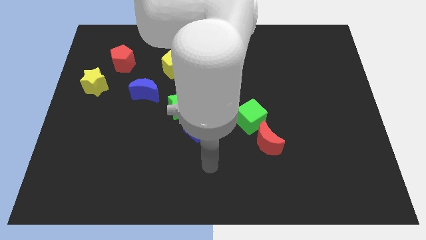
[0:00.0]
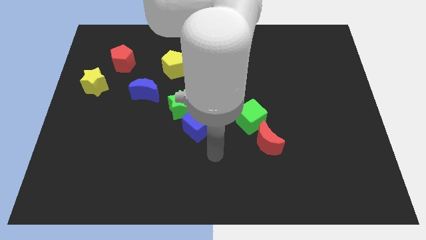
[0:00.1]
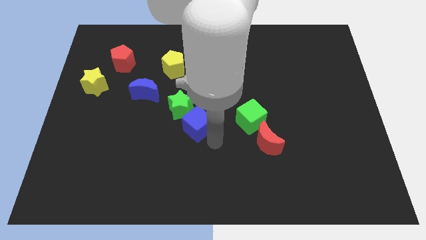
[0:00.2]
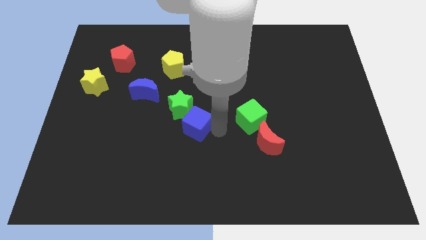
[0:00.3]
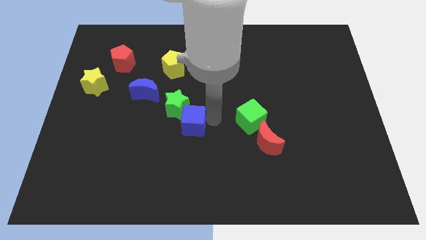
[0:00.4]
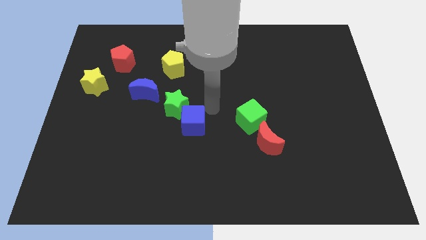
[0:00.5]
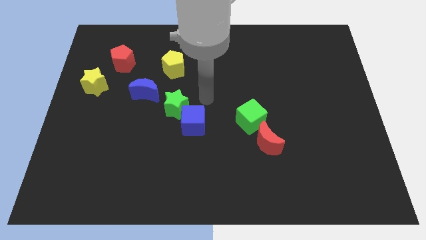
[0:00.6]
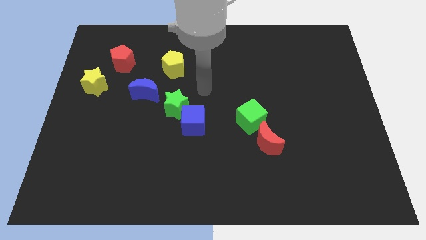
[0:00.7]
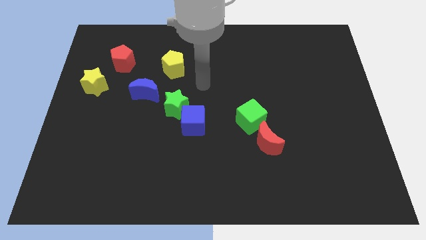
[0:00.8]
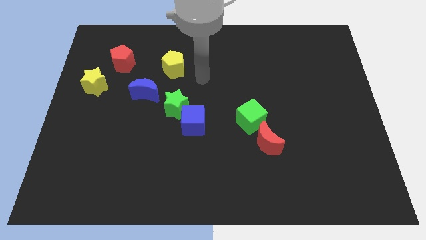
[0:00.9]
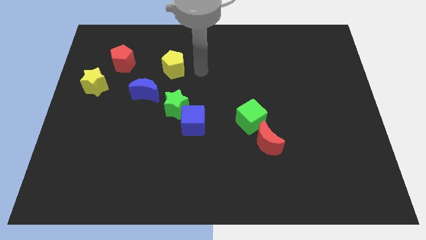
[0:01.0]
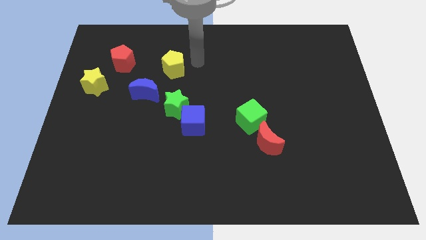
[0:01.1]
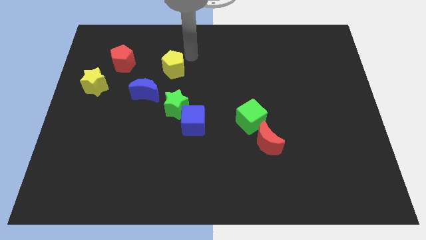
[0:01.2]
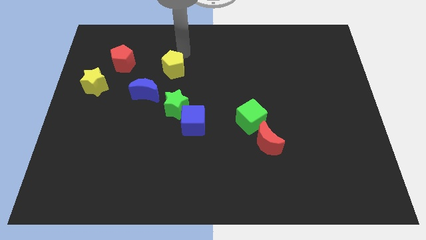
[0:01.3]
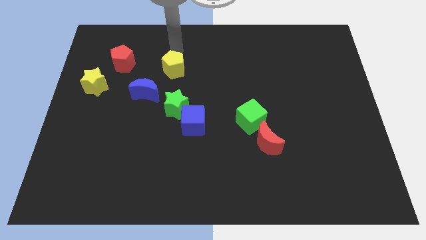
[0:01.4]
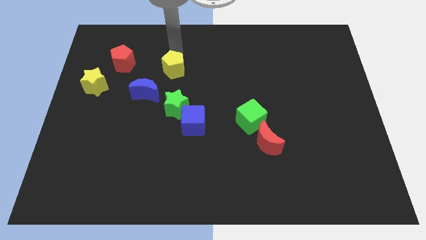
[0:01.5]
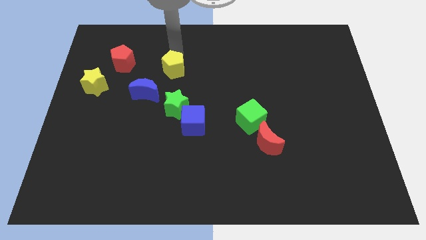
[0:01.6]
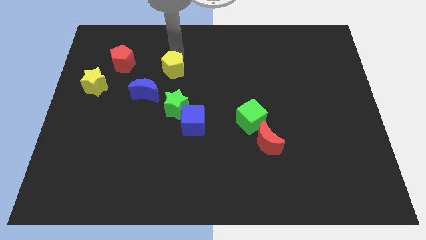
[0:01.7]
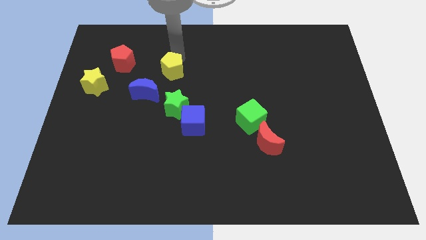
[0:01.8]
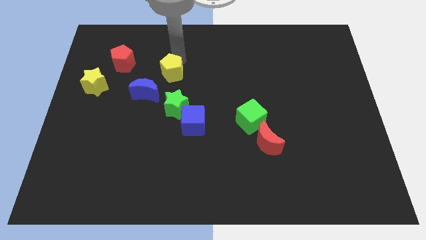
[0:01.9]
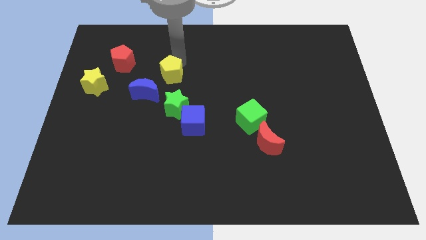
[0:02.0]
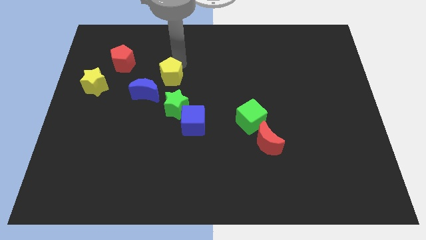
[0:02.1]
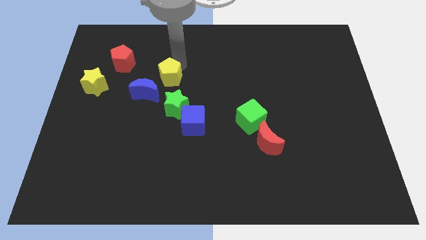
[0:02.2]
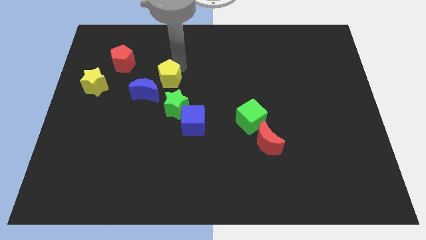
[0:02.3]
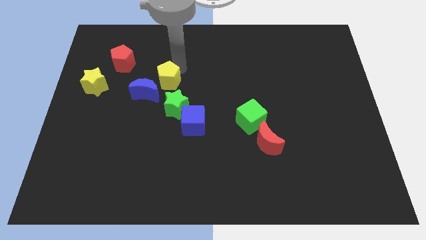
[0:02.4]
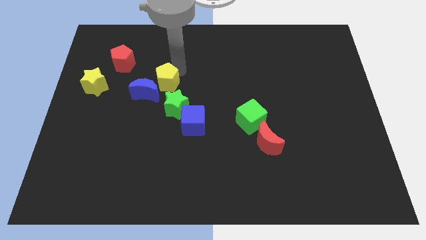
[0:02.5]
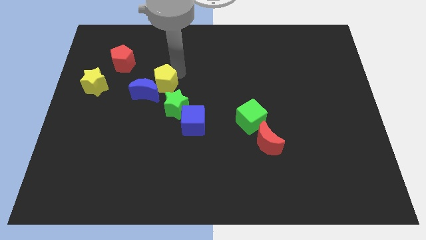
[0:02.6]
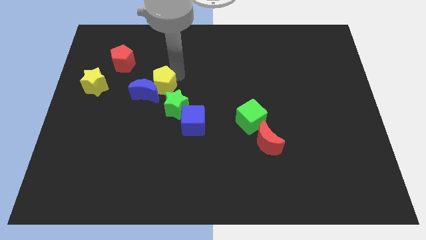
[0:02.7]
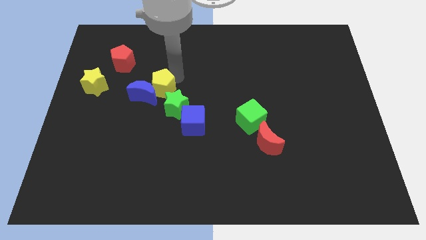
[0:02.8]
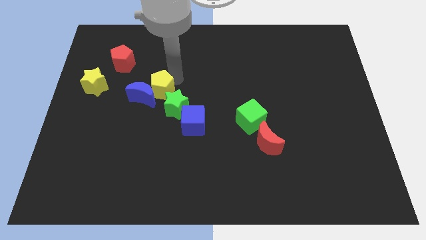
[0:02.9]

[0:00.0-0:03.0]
slightly move the yellow pentagon down

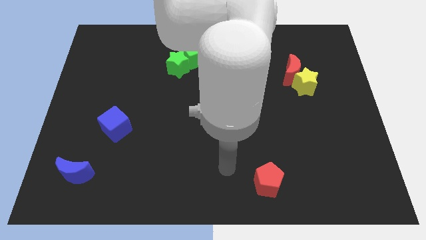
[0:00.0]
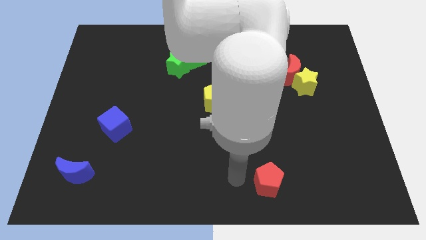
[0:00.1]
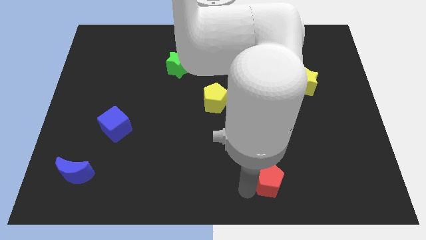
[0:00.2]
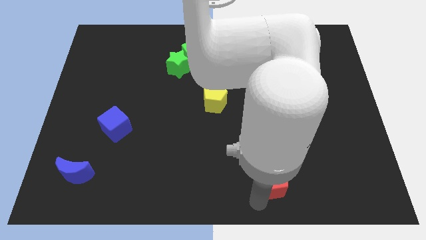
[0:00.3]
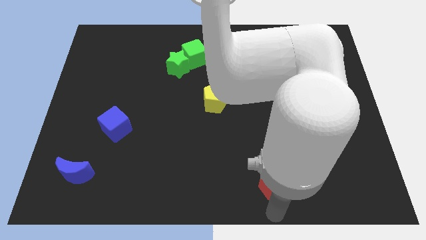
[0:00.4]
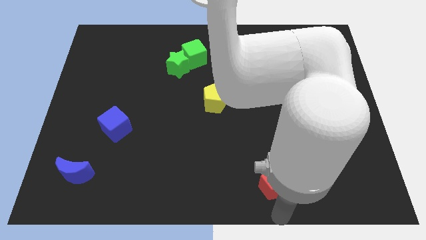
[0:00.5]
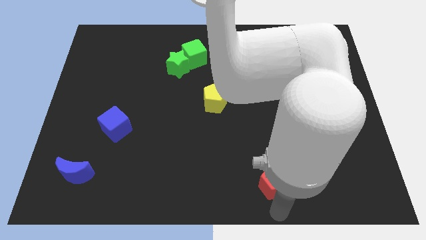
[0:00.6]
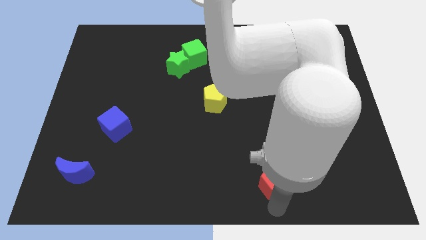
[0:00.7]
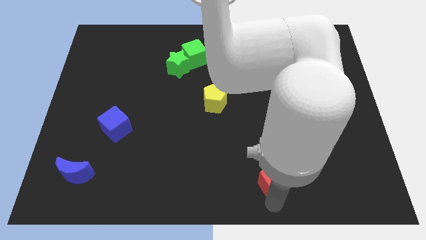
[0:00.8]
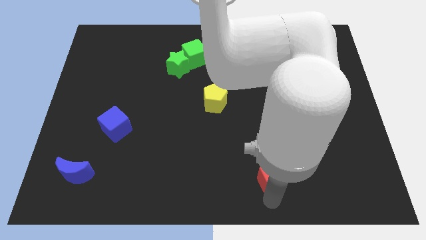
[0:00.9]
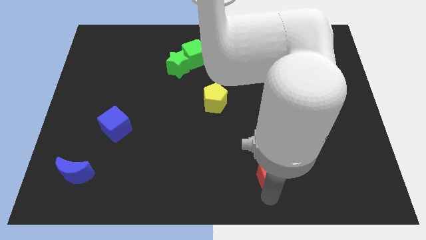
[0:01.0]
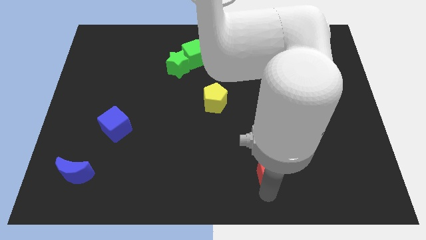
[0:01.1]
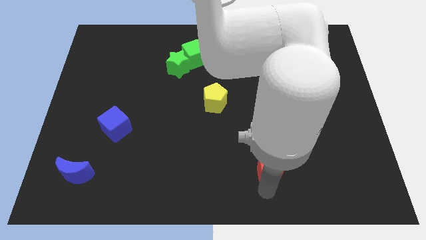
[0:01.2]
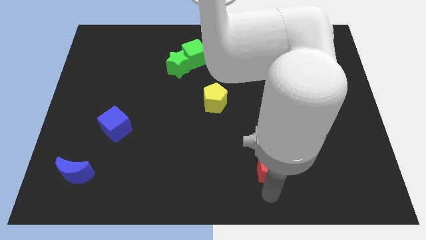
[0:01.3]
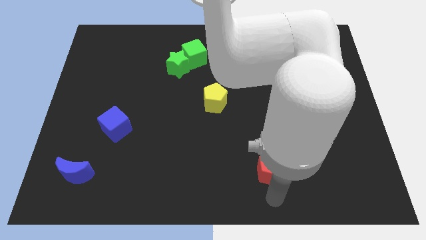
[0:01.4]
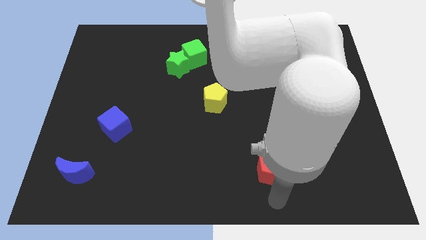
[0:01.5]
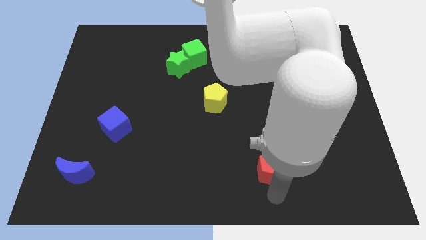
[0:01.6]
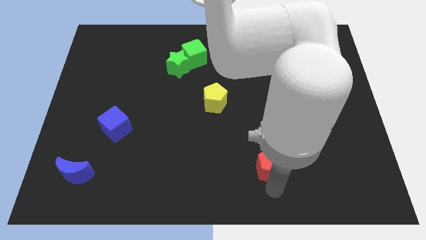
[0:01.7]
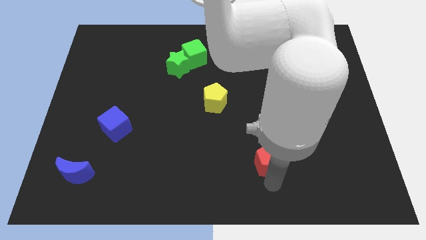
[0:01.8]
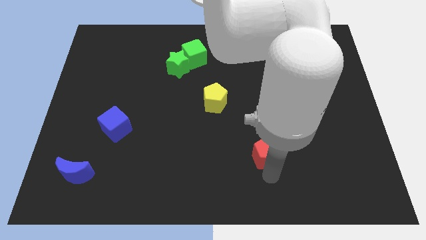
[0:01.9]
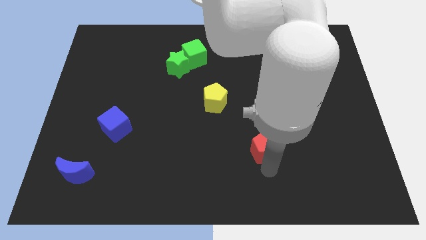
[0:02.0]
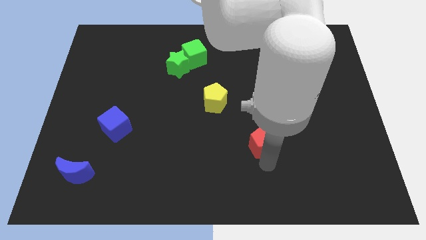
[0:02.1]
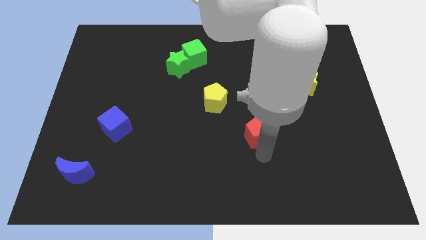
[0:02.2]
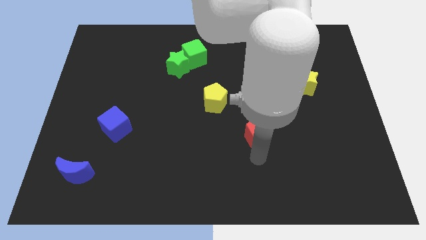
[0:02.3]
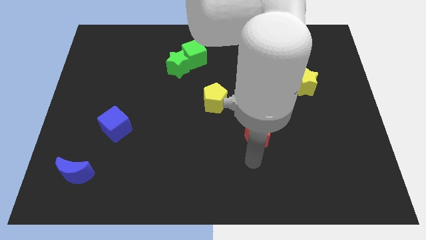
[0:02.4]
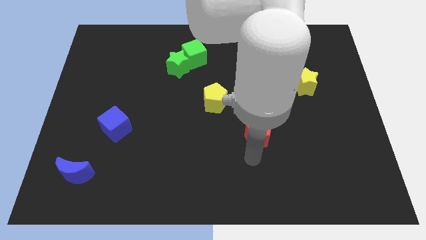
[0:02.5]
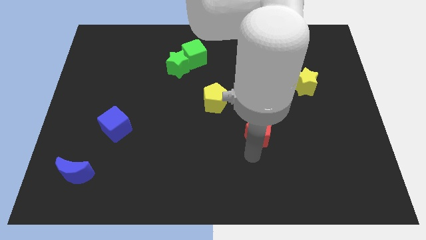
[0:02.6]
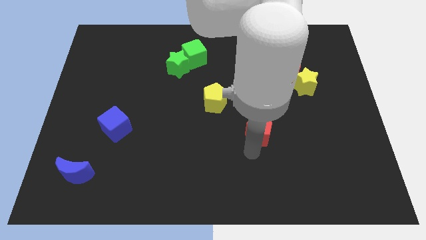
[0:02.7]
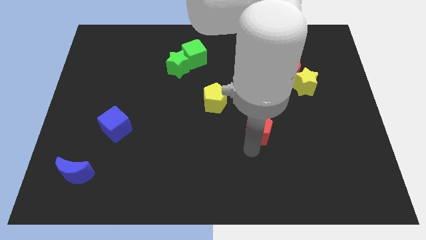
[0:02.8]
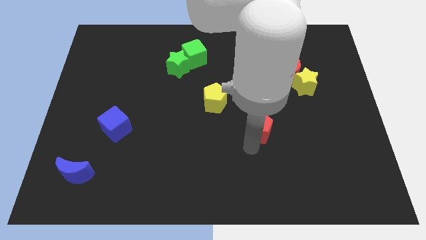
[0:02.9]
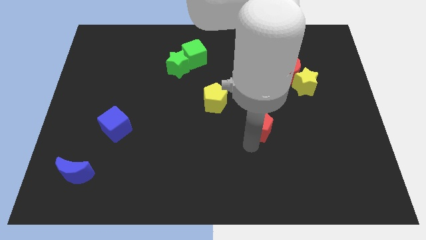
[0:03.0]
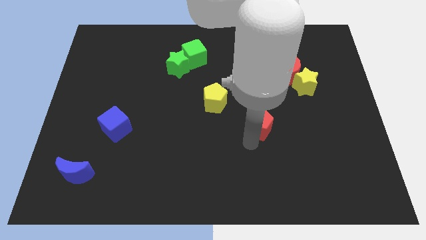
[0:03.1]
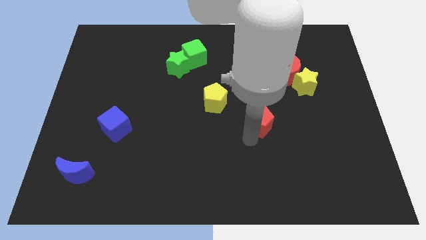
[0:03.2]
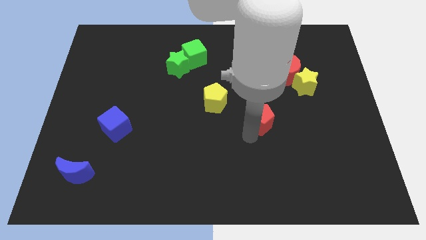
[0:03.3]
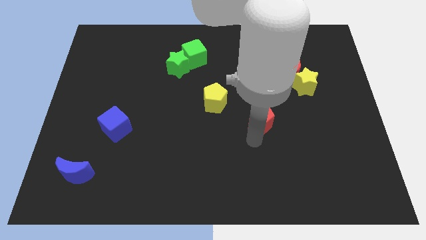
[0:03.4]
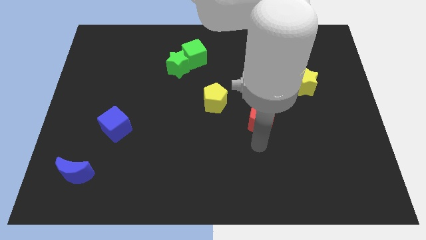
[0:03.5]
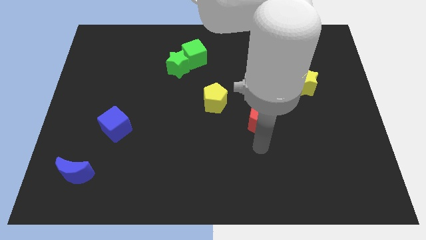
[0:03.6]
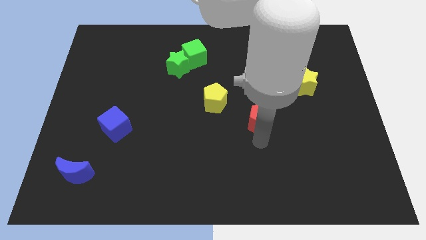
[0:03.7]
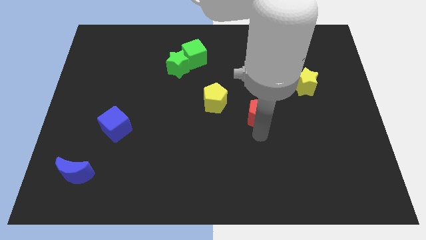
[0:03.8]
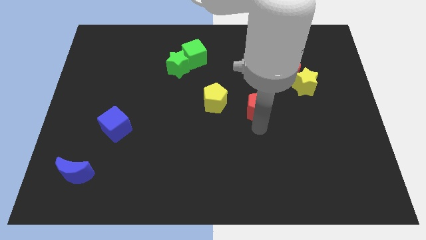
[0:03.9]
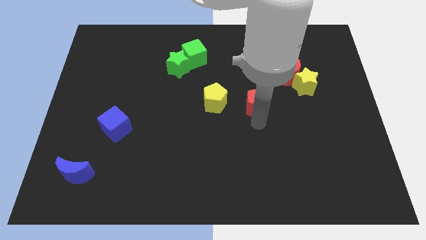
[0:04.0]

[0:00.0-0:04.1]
slide the red pentagon upwards

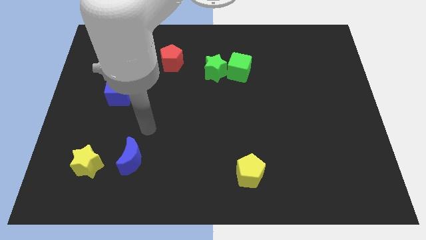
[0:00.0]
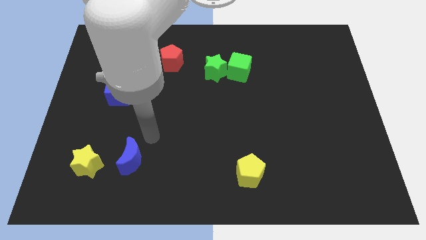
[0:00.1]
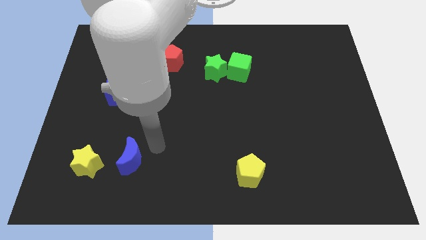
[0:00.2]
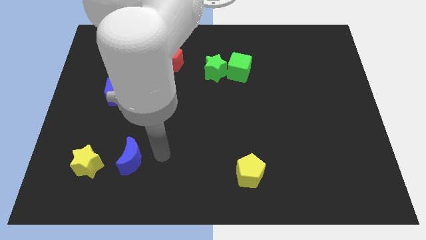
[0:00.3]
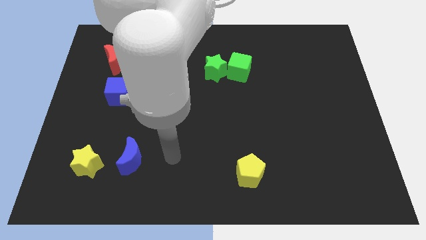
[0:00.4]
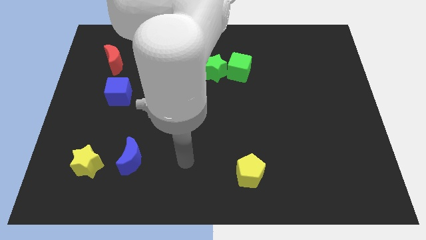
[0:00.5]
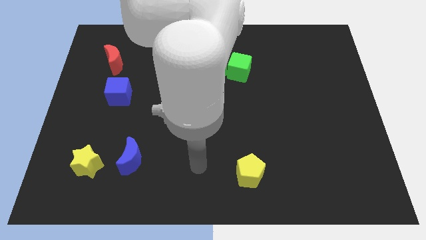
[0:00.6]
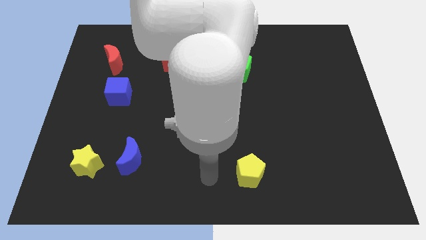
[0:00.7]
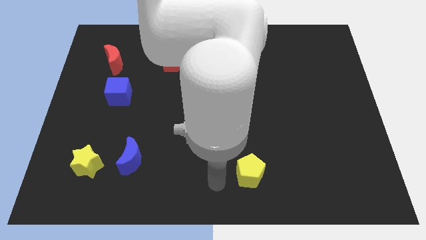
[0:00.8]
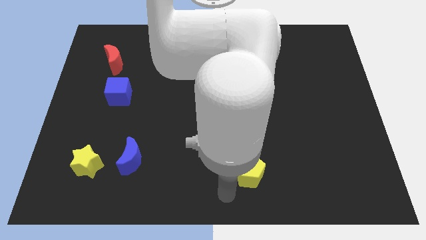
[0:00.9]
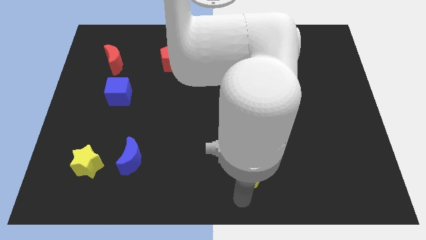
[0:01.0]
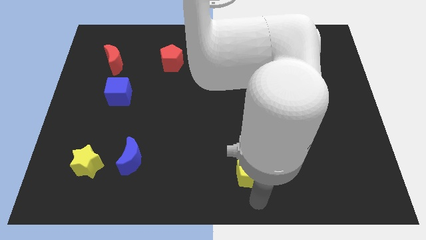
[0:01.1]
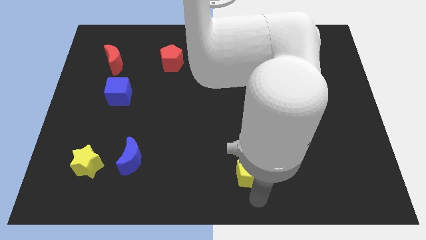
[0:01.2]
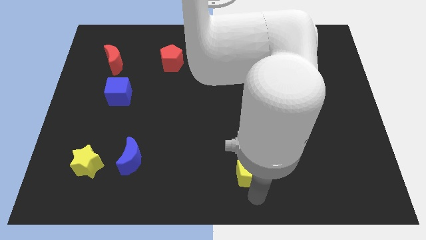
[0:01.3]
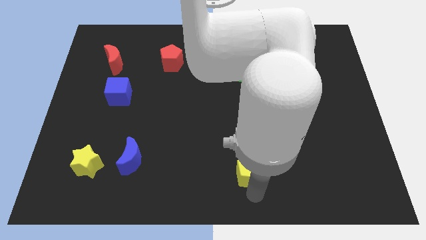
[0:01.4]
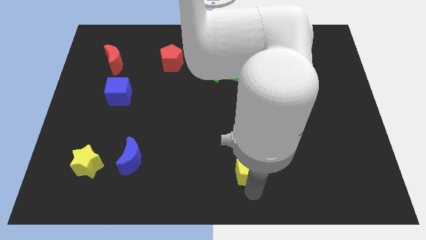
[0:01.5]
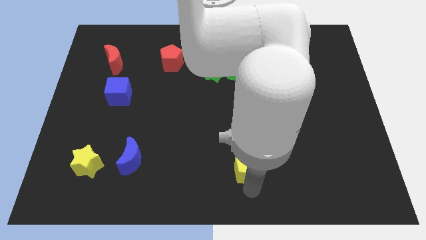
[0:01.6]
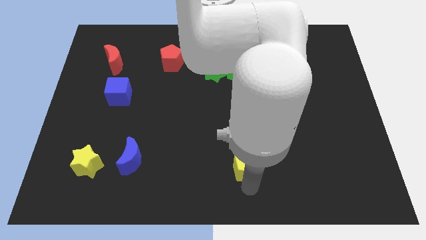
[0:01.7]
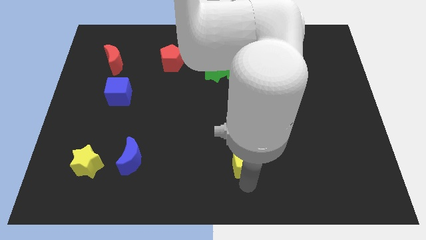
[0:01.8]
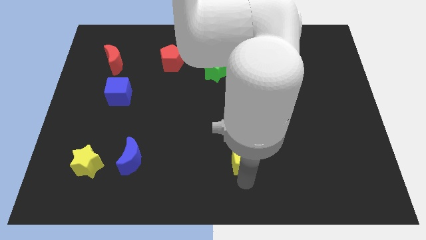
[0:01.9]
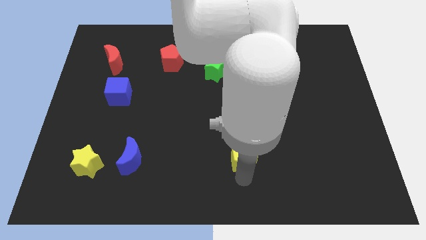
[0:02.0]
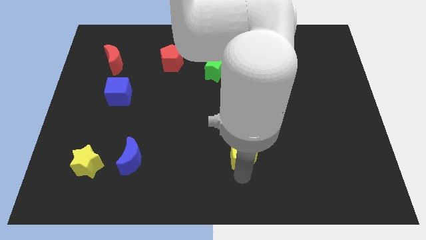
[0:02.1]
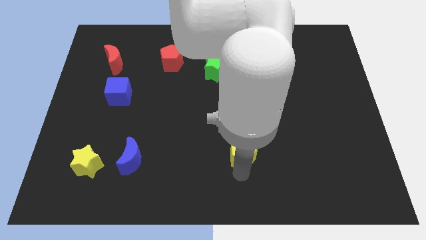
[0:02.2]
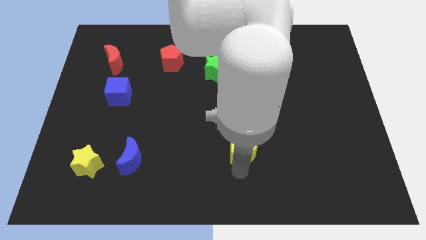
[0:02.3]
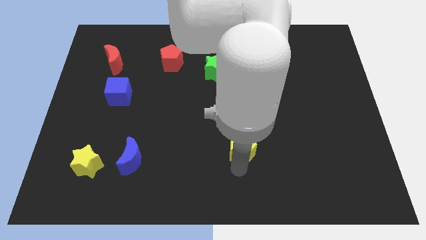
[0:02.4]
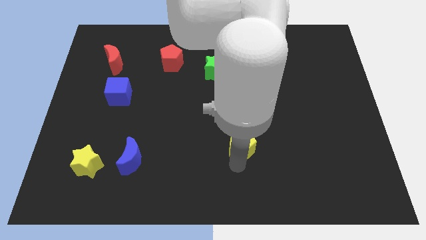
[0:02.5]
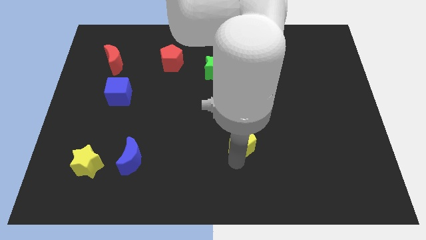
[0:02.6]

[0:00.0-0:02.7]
slightly slide the yellow pentagon up
